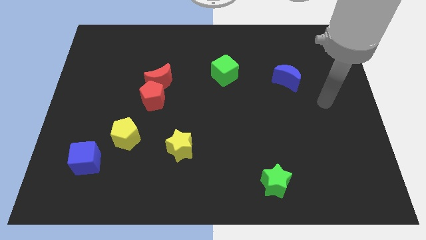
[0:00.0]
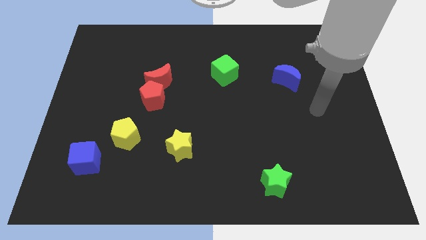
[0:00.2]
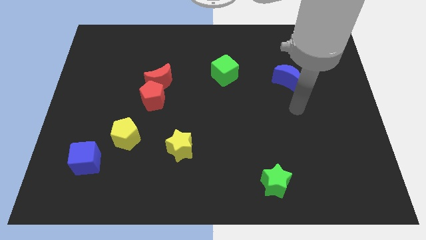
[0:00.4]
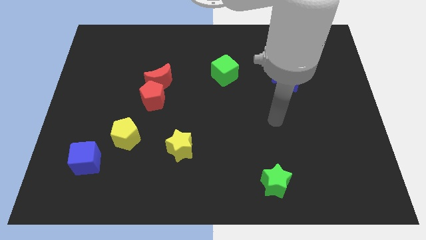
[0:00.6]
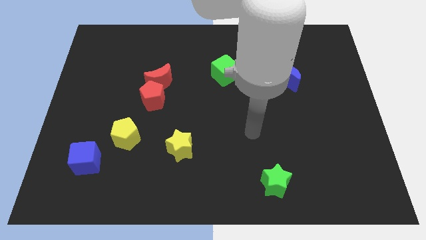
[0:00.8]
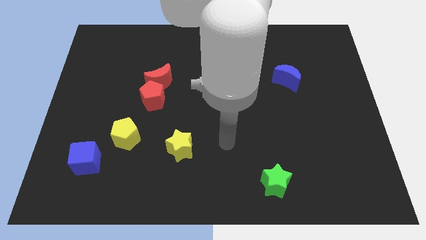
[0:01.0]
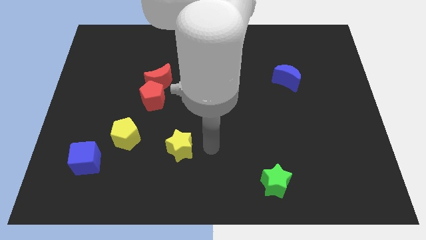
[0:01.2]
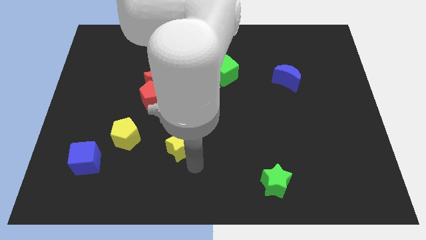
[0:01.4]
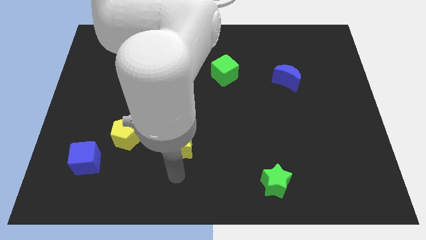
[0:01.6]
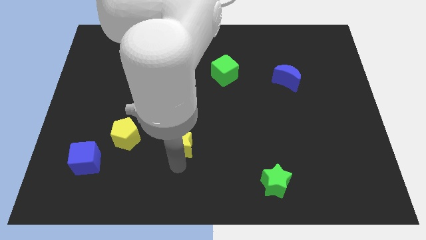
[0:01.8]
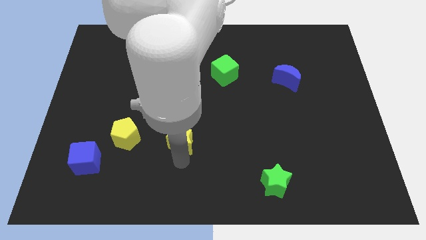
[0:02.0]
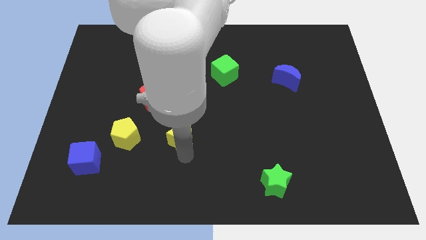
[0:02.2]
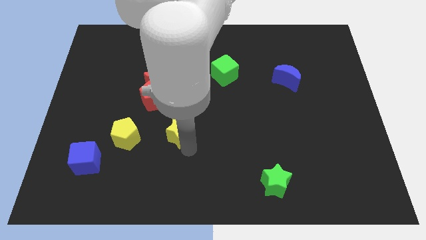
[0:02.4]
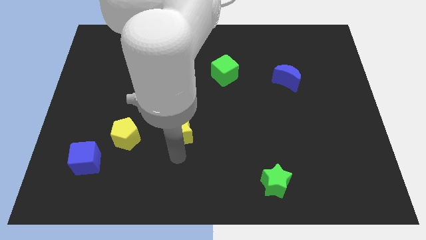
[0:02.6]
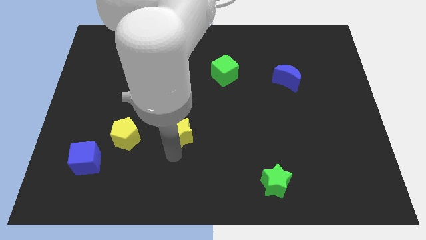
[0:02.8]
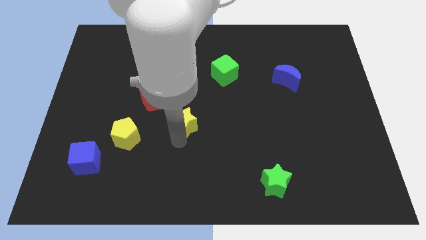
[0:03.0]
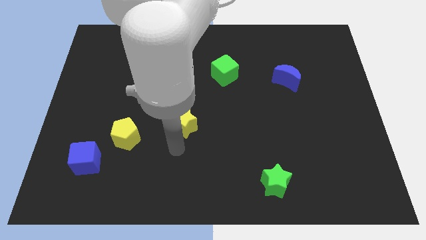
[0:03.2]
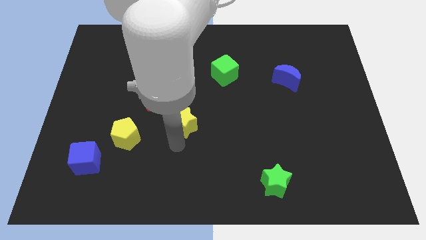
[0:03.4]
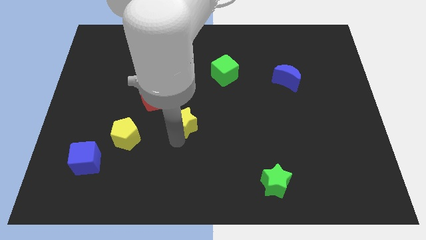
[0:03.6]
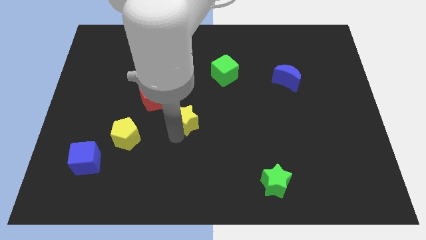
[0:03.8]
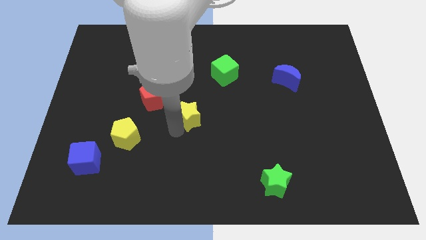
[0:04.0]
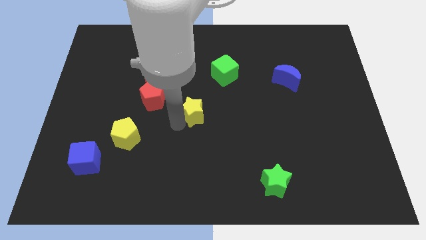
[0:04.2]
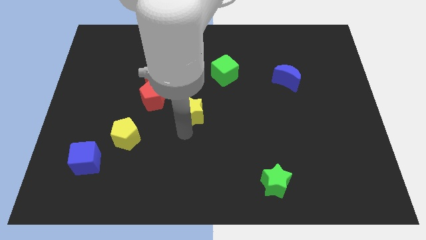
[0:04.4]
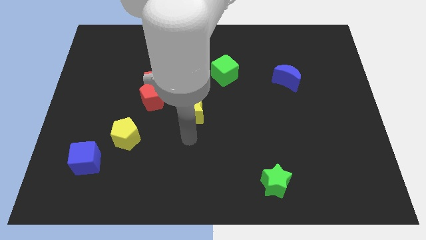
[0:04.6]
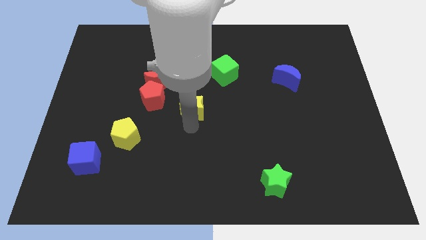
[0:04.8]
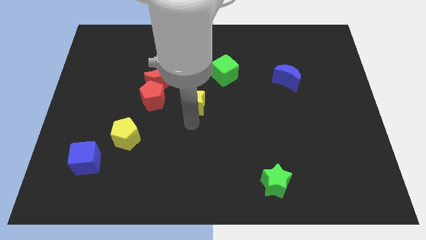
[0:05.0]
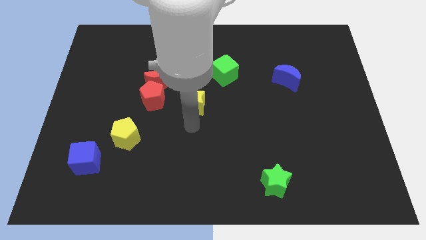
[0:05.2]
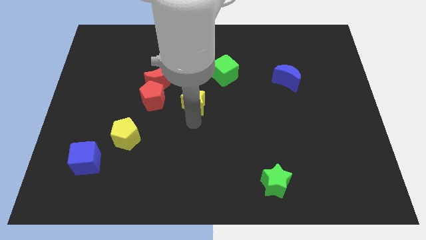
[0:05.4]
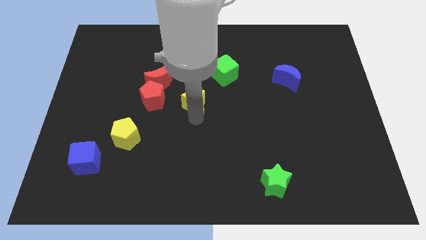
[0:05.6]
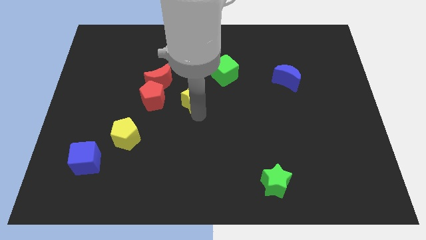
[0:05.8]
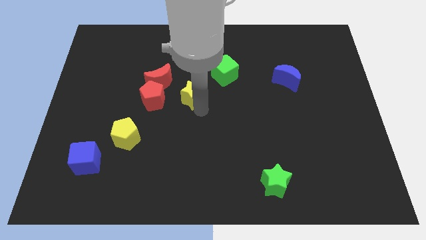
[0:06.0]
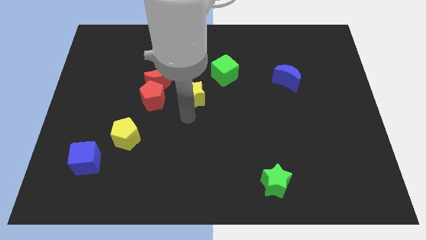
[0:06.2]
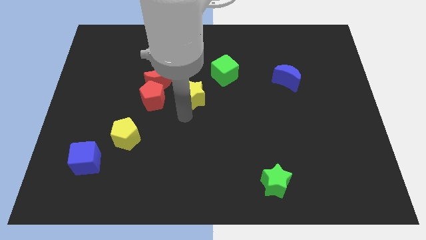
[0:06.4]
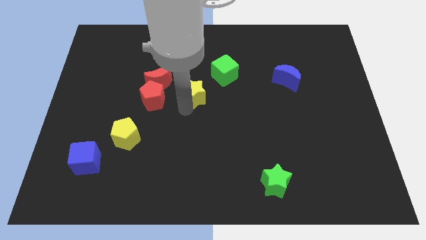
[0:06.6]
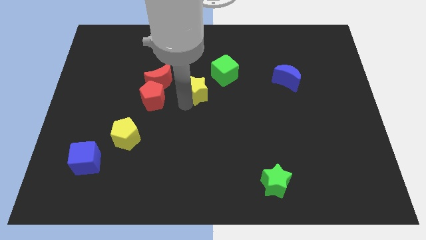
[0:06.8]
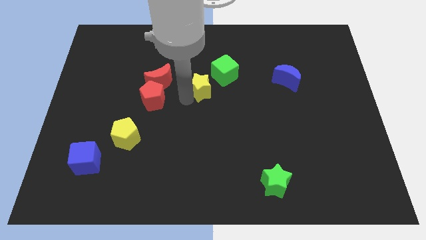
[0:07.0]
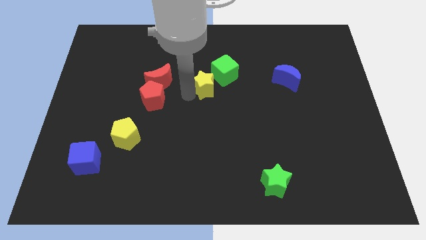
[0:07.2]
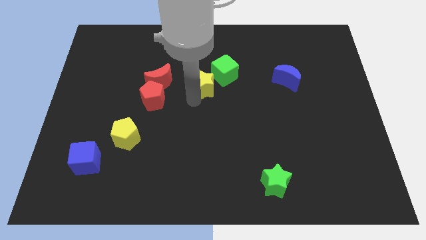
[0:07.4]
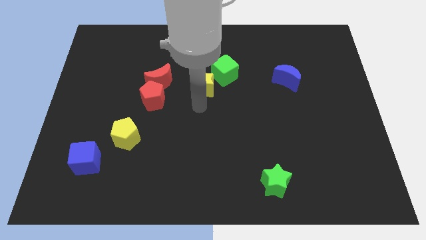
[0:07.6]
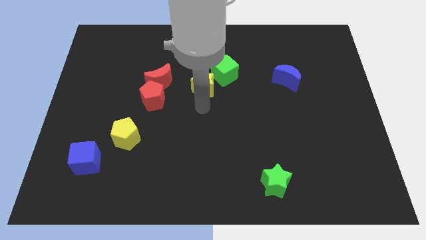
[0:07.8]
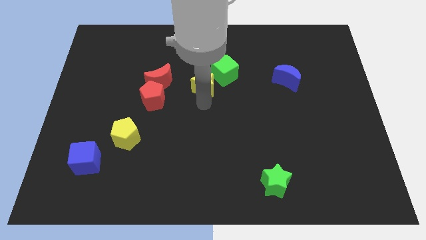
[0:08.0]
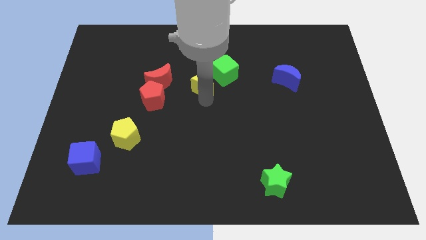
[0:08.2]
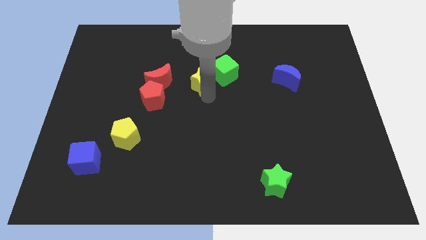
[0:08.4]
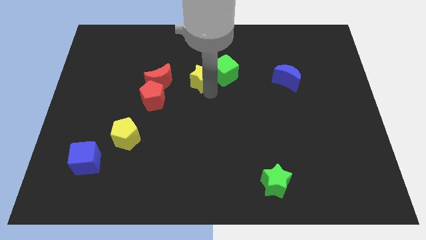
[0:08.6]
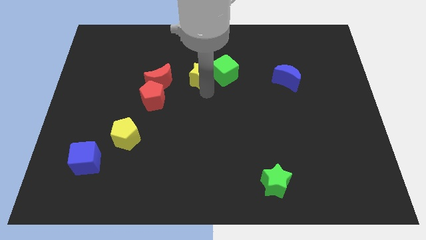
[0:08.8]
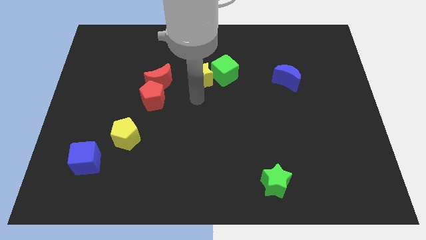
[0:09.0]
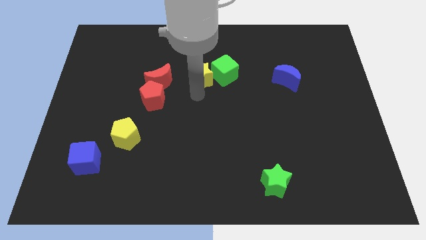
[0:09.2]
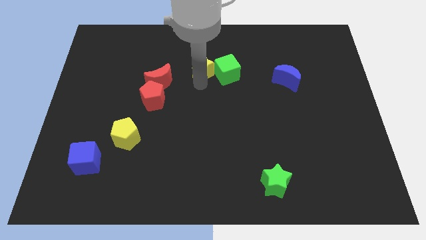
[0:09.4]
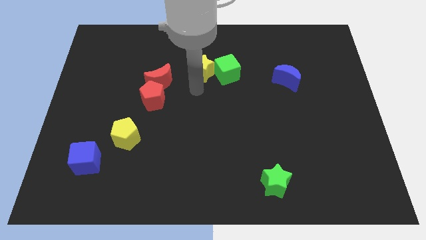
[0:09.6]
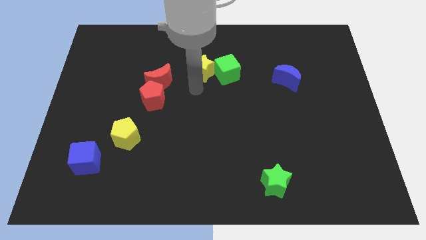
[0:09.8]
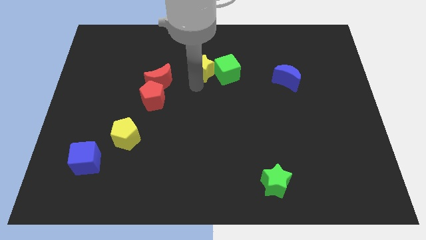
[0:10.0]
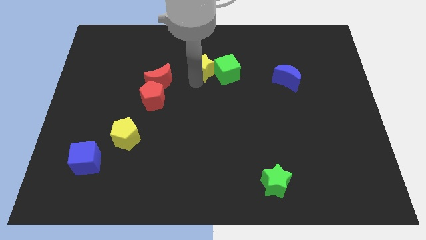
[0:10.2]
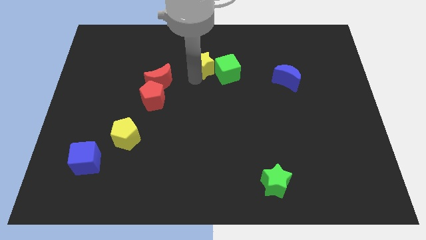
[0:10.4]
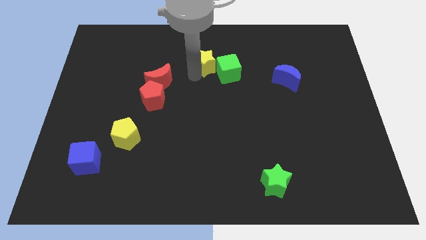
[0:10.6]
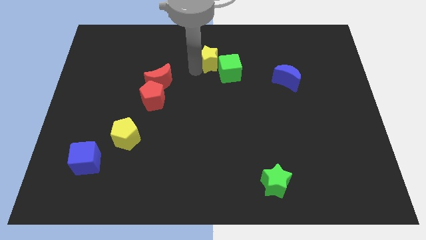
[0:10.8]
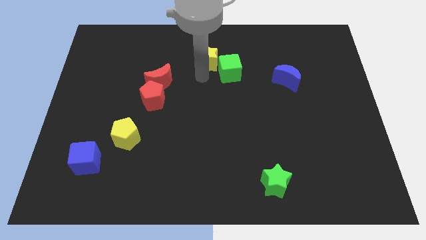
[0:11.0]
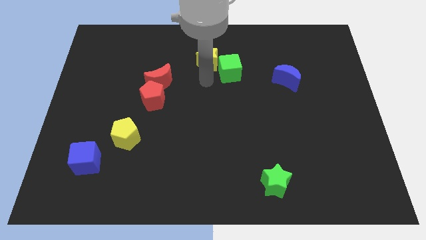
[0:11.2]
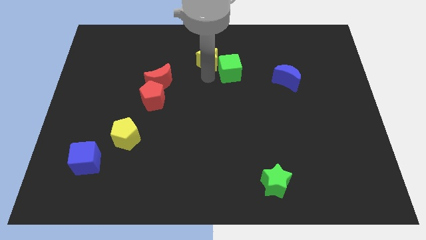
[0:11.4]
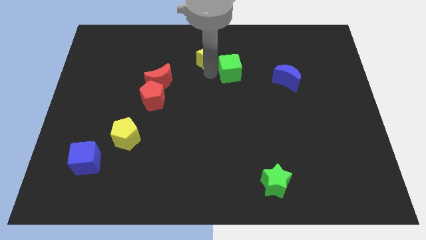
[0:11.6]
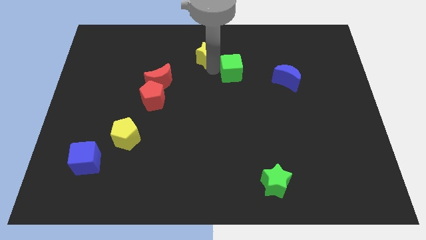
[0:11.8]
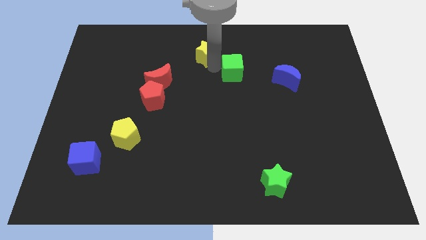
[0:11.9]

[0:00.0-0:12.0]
push the yellow star to the towards your base
